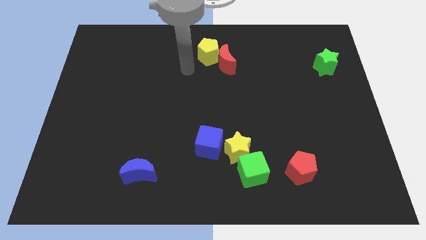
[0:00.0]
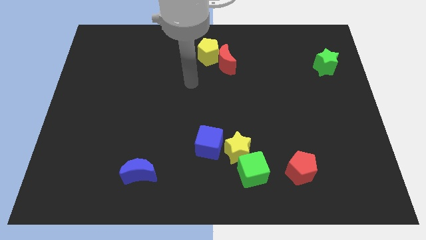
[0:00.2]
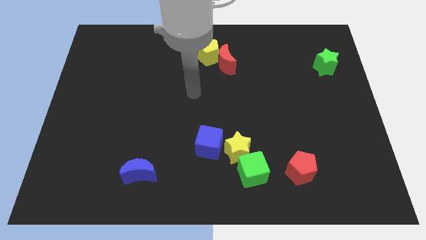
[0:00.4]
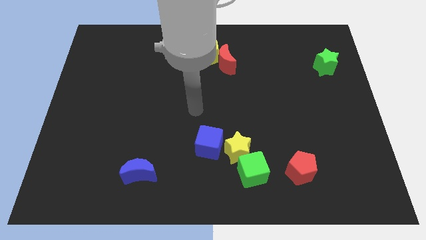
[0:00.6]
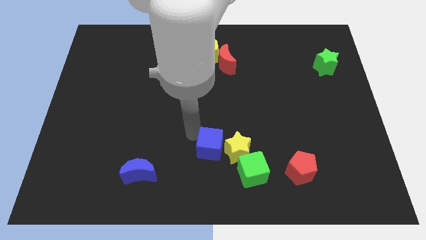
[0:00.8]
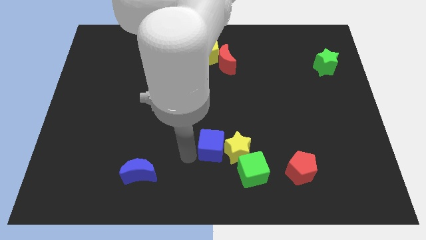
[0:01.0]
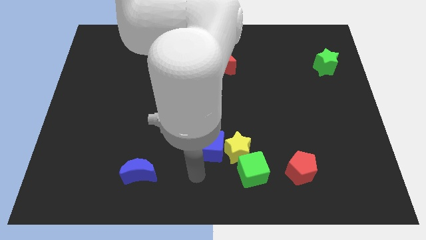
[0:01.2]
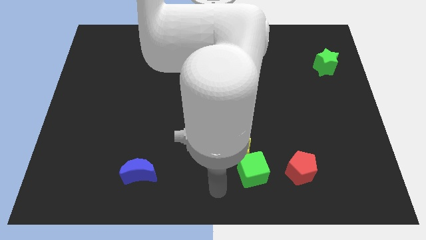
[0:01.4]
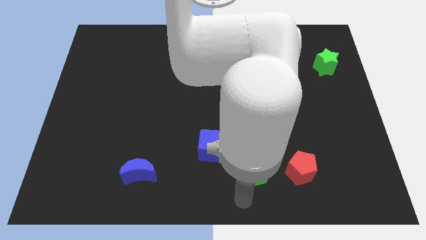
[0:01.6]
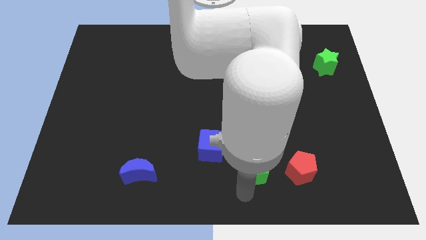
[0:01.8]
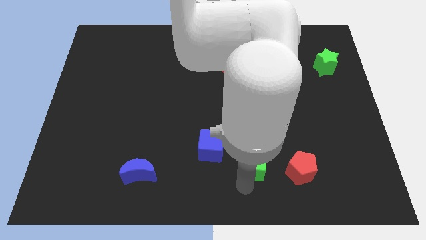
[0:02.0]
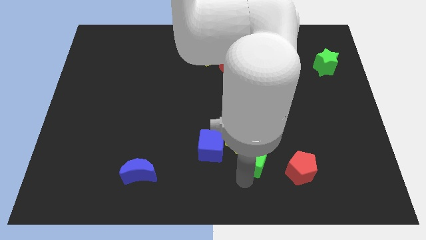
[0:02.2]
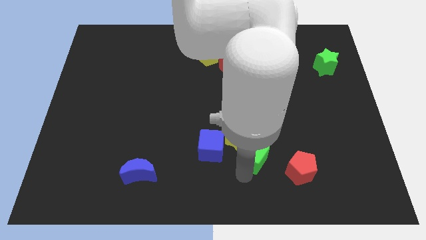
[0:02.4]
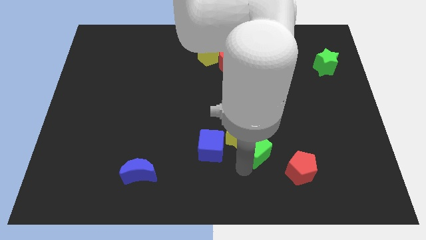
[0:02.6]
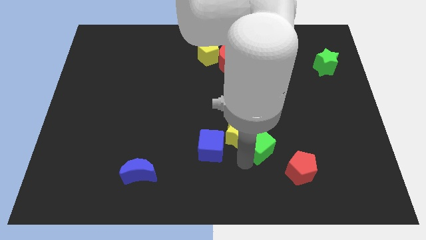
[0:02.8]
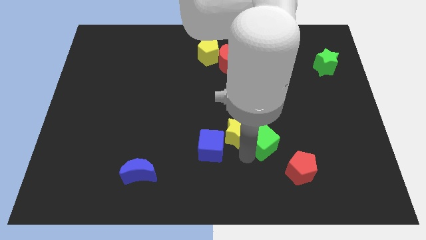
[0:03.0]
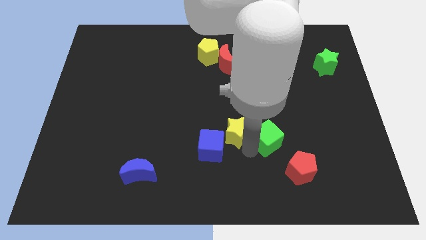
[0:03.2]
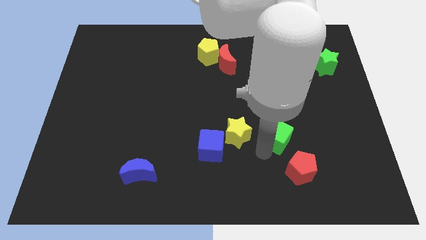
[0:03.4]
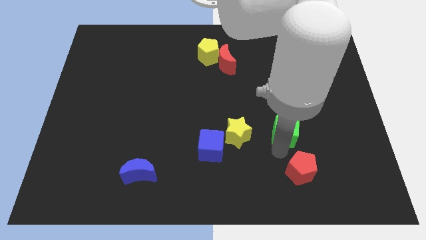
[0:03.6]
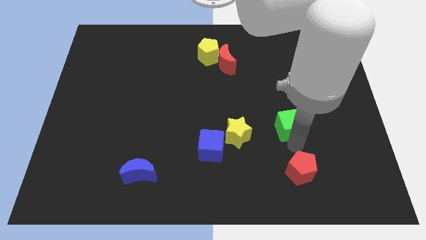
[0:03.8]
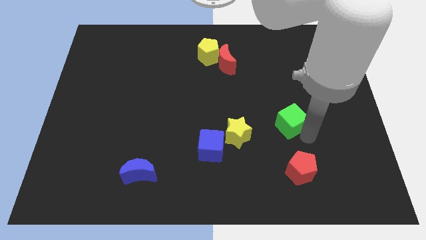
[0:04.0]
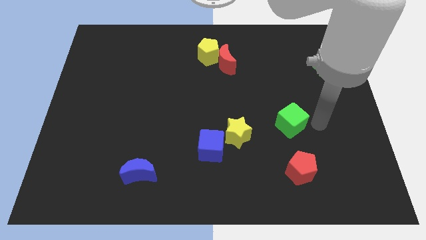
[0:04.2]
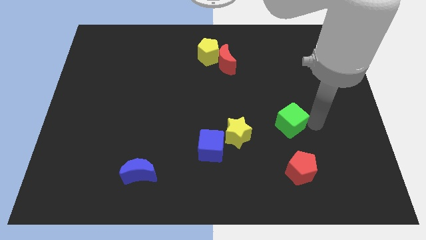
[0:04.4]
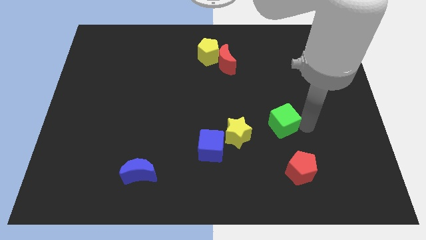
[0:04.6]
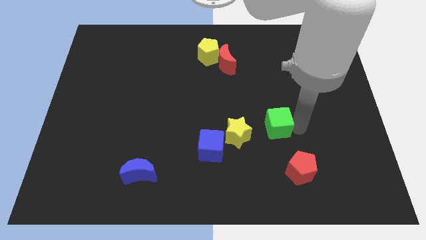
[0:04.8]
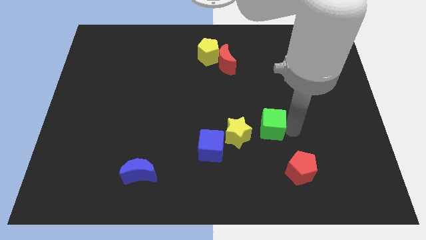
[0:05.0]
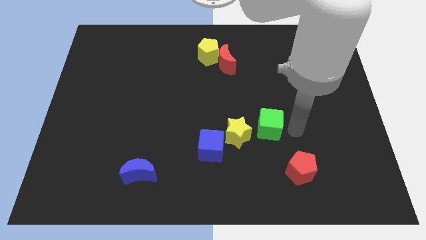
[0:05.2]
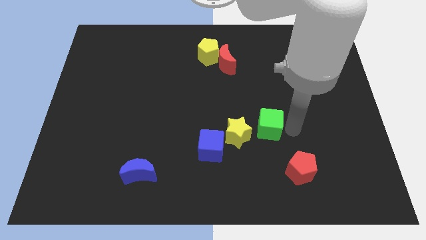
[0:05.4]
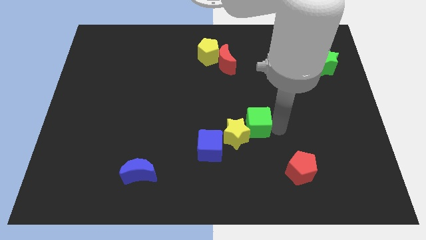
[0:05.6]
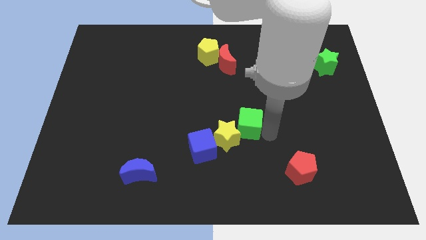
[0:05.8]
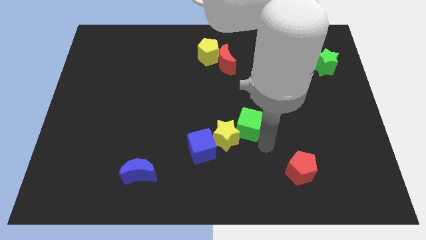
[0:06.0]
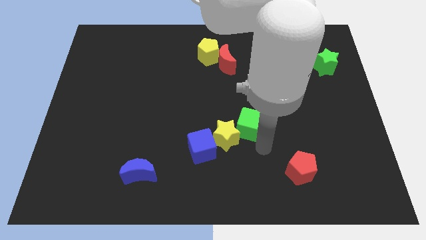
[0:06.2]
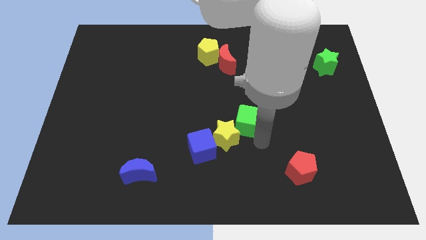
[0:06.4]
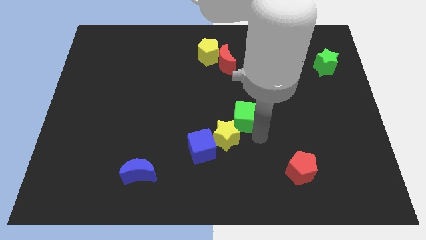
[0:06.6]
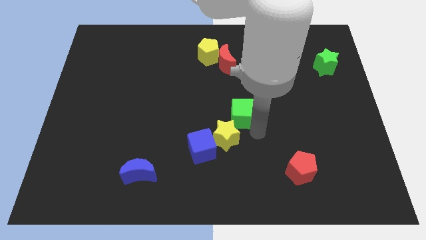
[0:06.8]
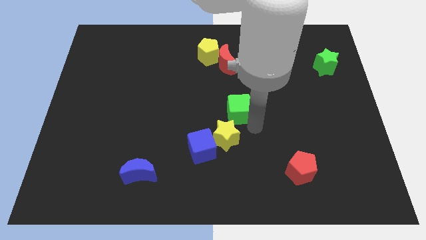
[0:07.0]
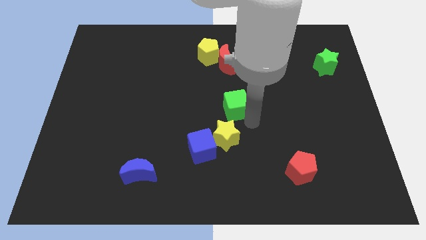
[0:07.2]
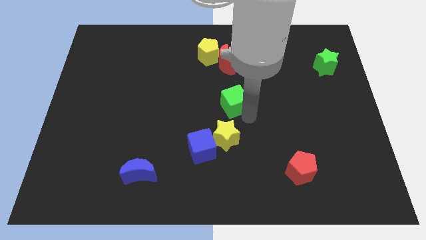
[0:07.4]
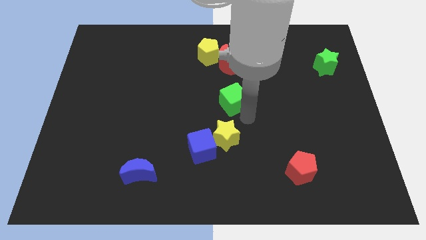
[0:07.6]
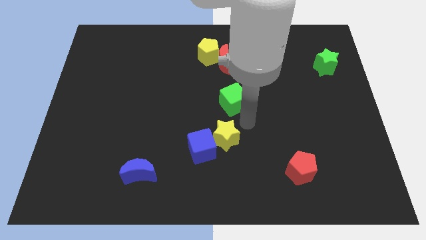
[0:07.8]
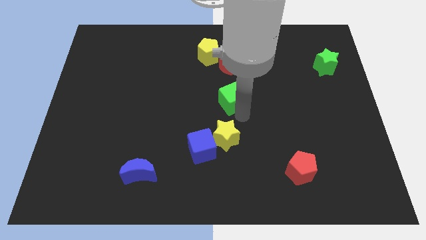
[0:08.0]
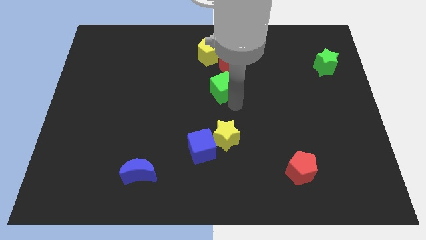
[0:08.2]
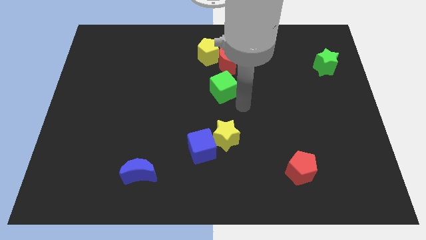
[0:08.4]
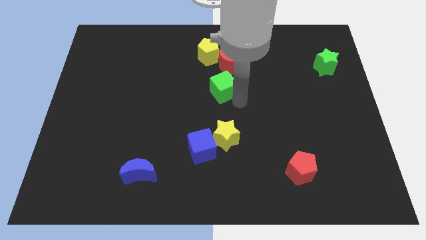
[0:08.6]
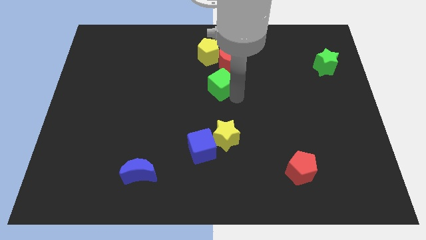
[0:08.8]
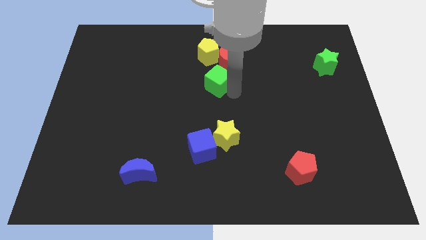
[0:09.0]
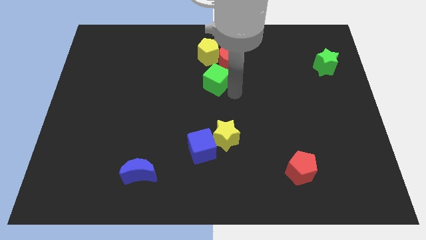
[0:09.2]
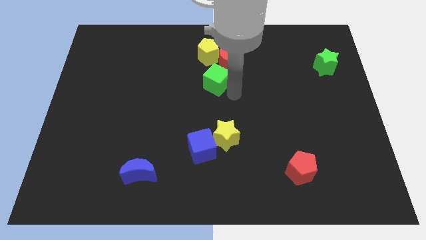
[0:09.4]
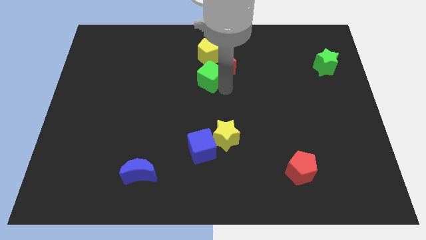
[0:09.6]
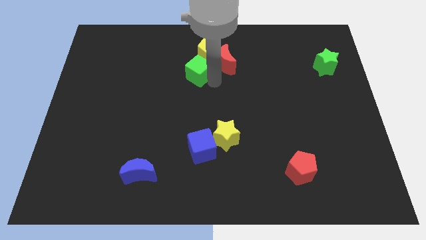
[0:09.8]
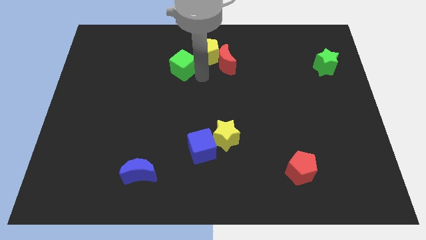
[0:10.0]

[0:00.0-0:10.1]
move the green cube just left of the yellow pentagon
